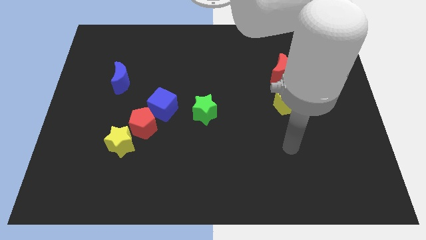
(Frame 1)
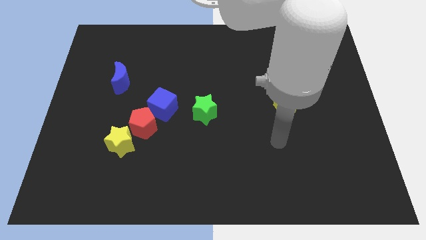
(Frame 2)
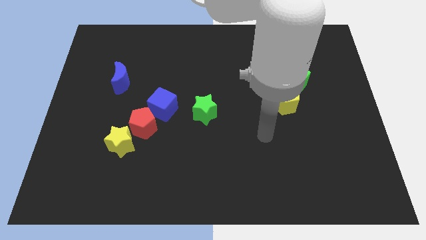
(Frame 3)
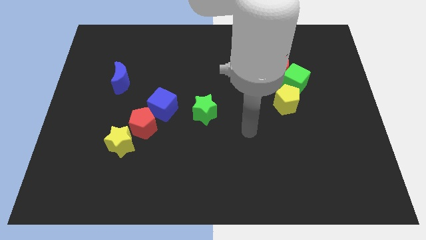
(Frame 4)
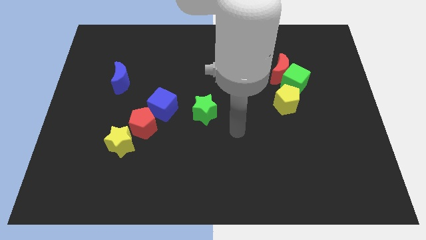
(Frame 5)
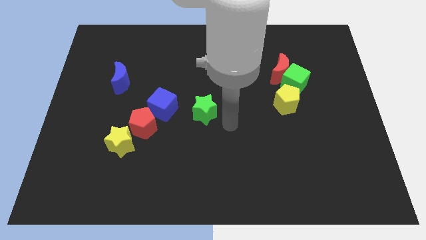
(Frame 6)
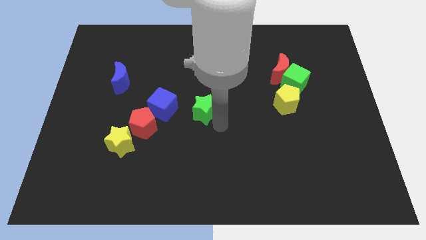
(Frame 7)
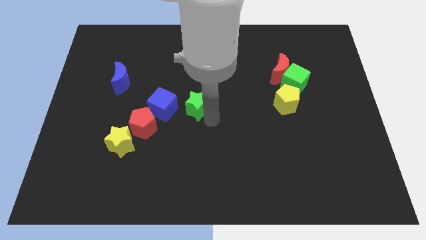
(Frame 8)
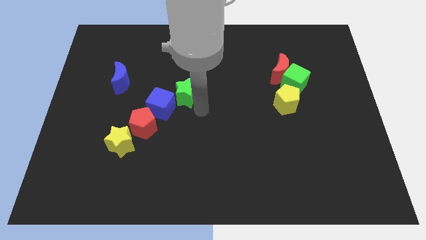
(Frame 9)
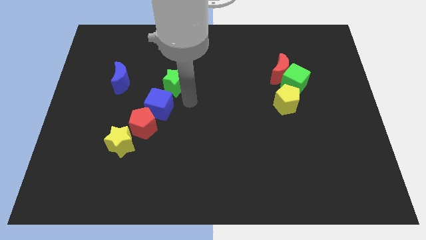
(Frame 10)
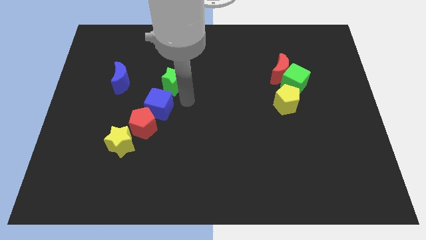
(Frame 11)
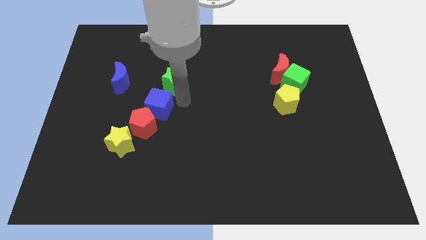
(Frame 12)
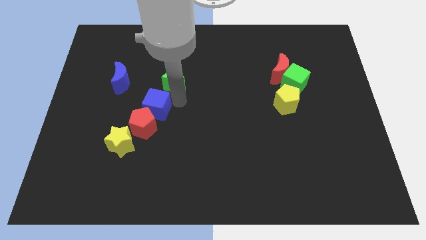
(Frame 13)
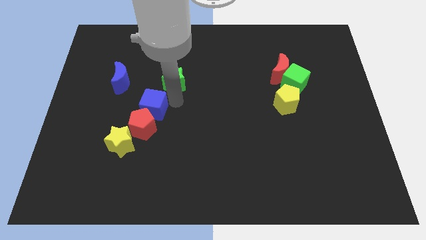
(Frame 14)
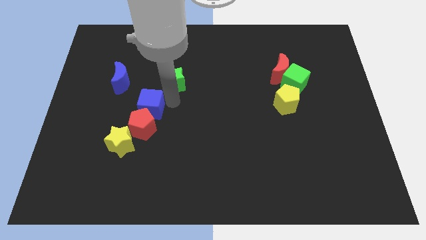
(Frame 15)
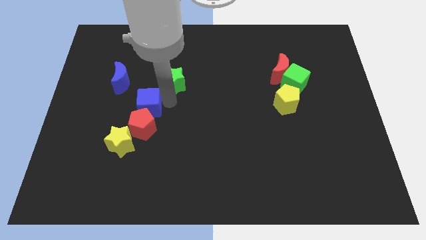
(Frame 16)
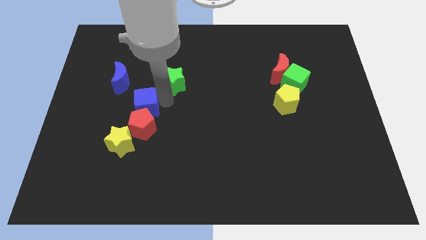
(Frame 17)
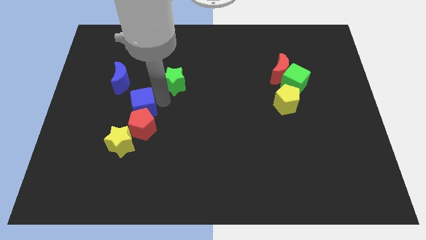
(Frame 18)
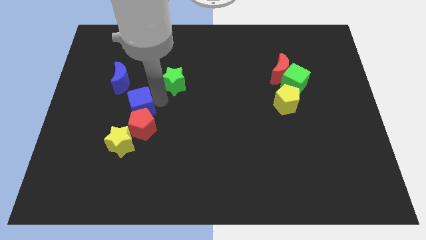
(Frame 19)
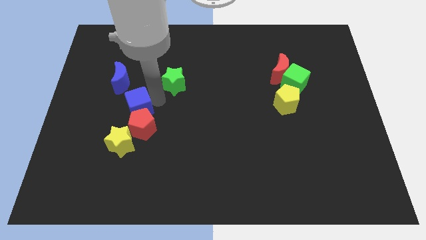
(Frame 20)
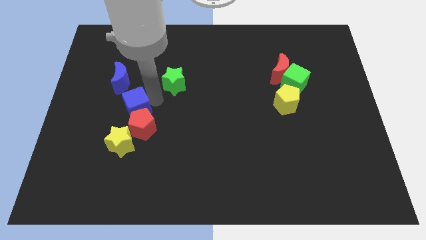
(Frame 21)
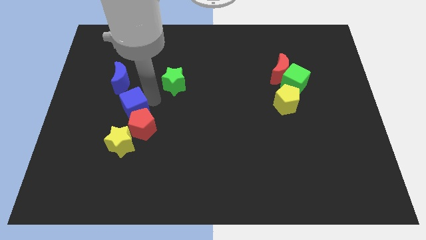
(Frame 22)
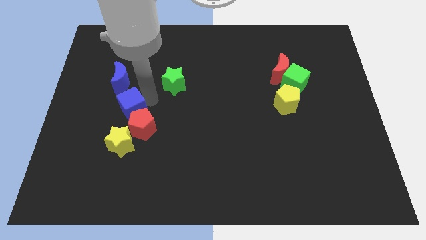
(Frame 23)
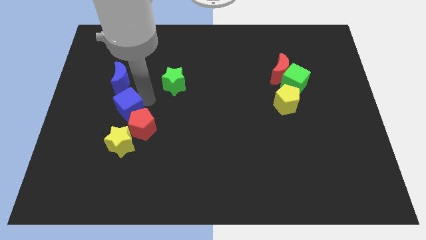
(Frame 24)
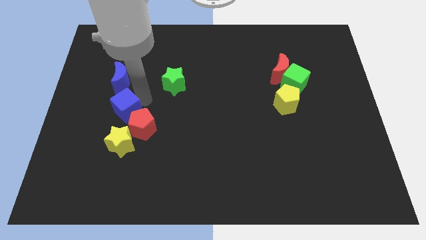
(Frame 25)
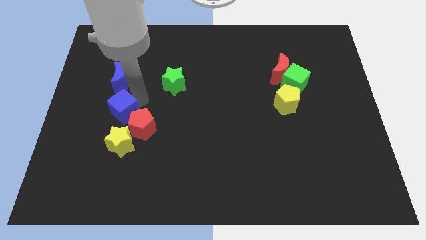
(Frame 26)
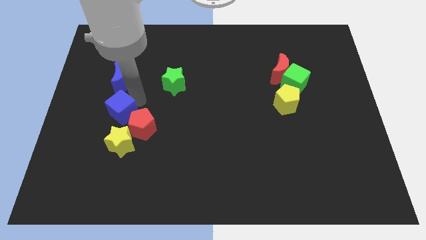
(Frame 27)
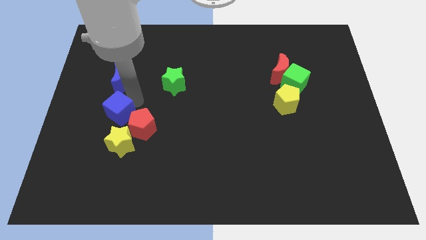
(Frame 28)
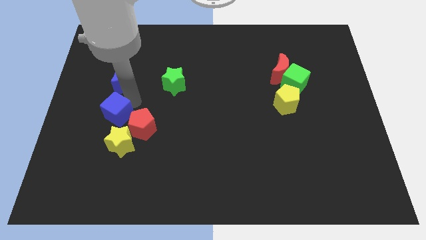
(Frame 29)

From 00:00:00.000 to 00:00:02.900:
move the blue cube downwards and then left slightly

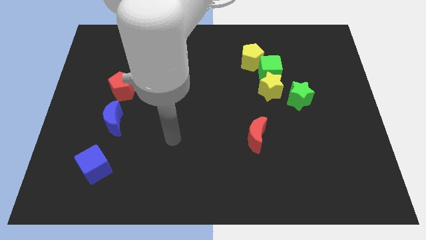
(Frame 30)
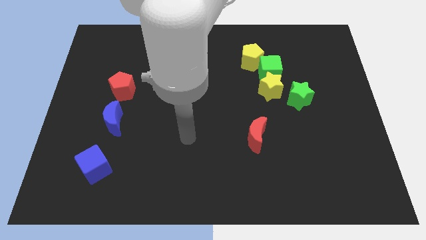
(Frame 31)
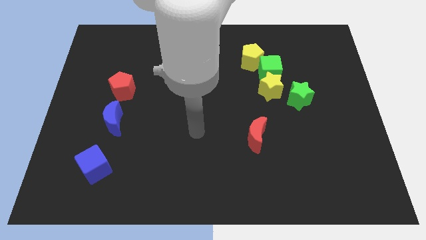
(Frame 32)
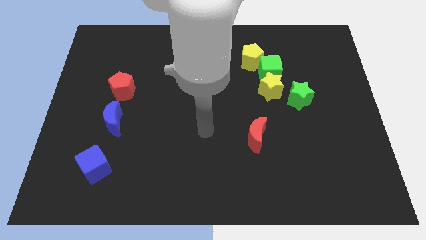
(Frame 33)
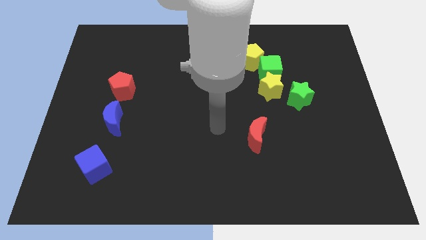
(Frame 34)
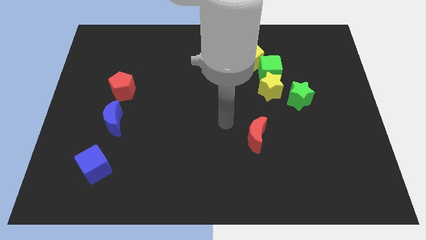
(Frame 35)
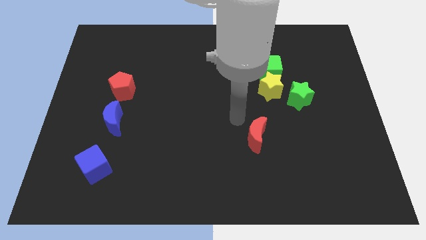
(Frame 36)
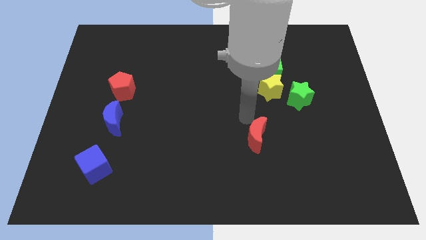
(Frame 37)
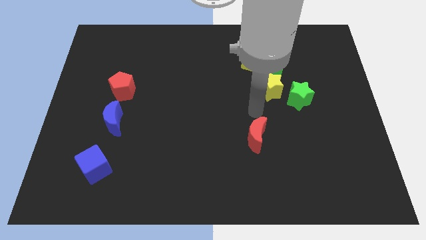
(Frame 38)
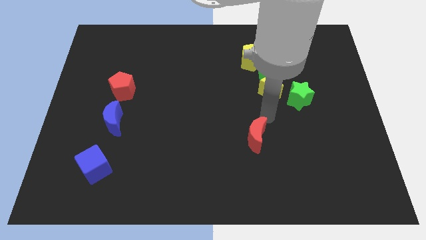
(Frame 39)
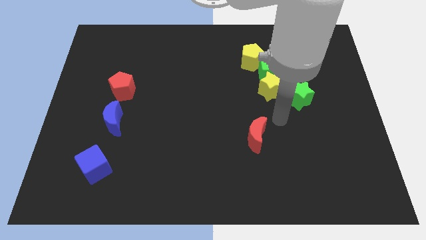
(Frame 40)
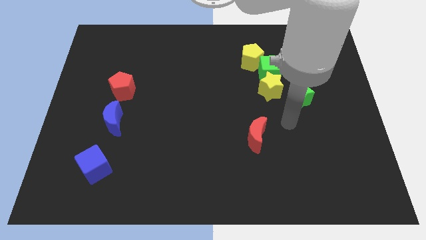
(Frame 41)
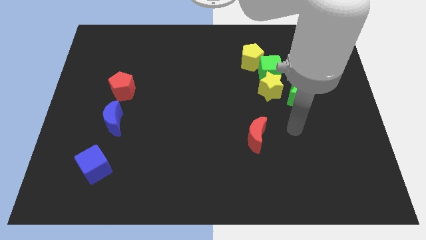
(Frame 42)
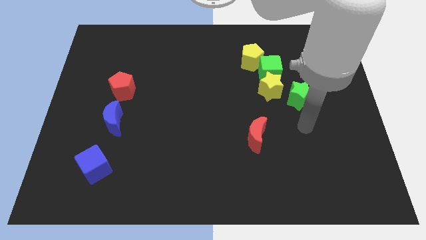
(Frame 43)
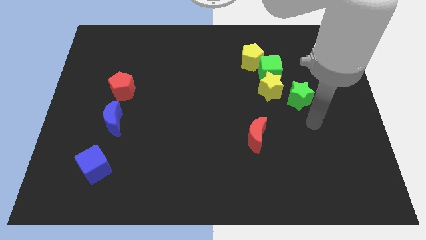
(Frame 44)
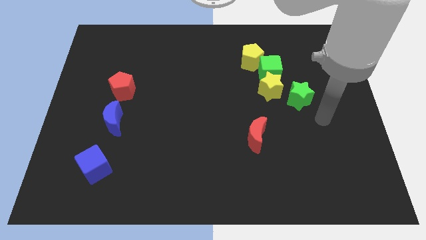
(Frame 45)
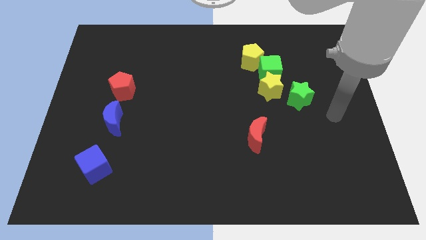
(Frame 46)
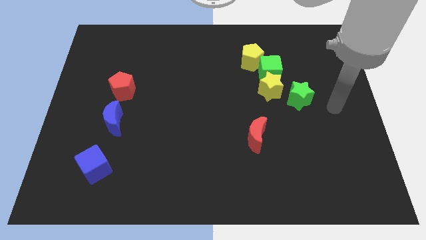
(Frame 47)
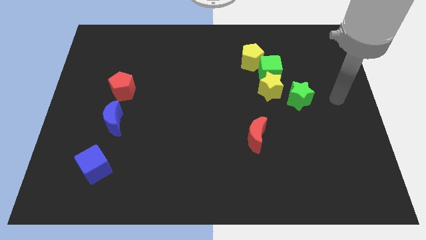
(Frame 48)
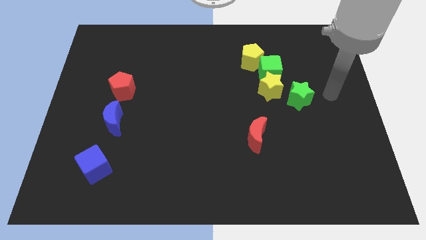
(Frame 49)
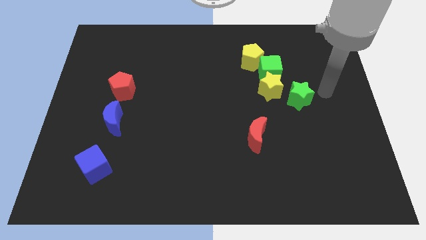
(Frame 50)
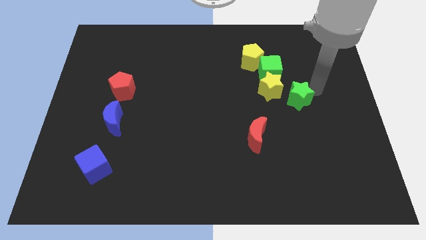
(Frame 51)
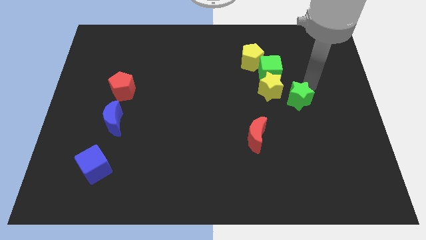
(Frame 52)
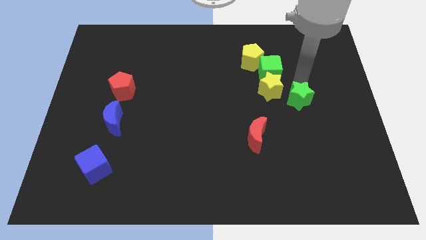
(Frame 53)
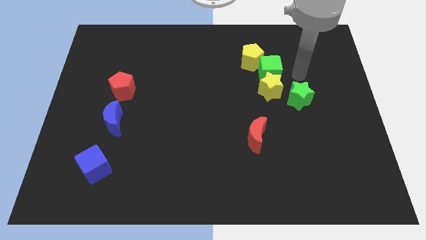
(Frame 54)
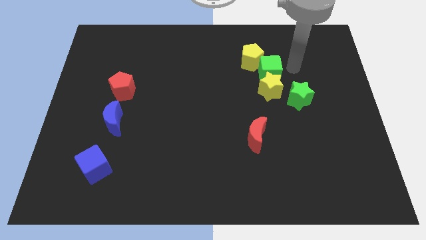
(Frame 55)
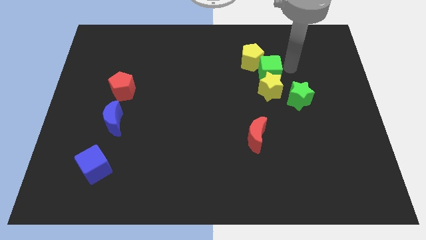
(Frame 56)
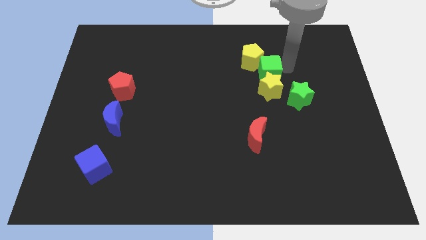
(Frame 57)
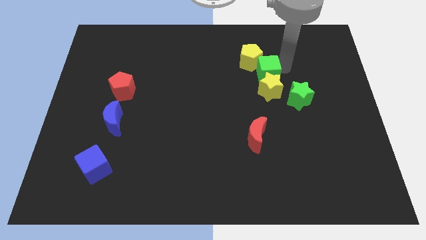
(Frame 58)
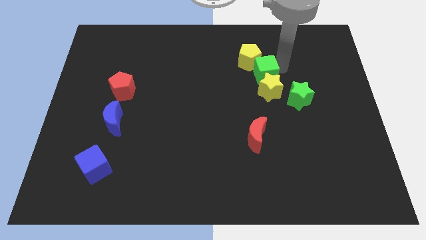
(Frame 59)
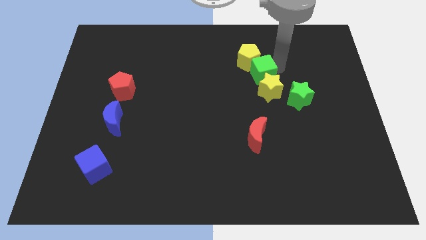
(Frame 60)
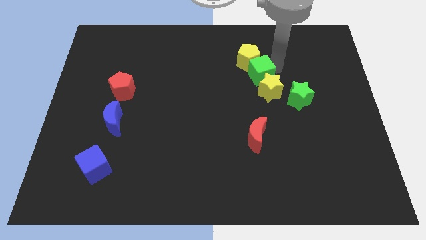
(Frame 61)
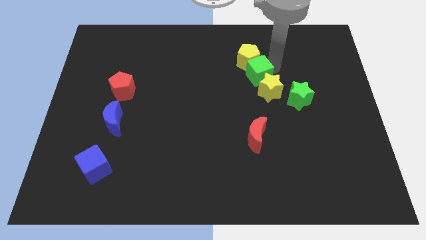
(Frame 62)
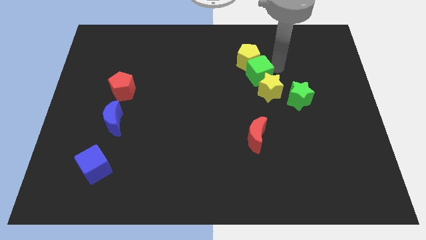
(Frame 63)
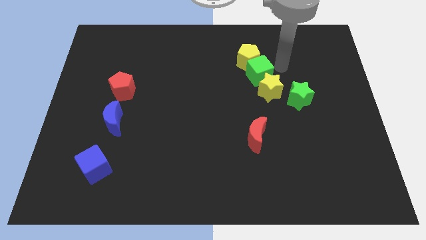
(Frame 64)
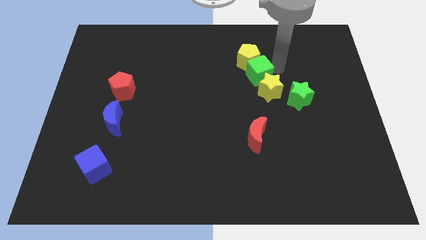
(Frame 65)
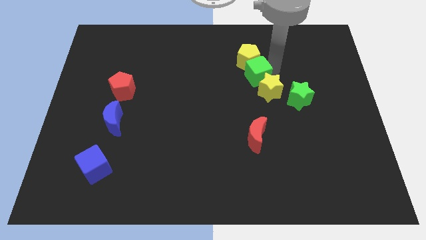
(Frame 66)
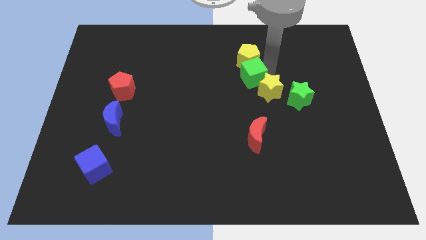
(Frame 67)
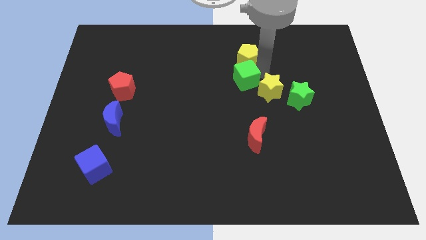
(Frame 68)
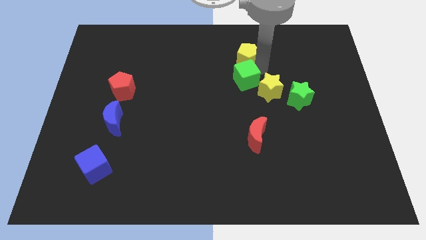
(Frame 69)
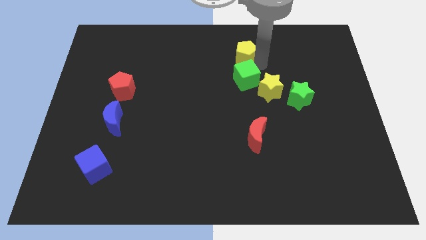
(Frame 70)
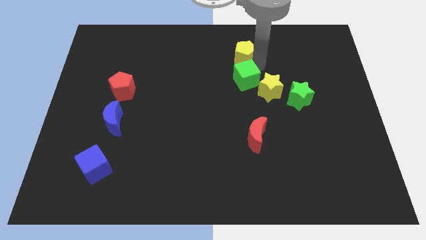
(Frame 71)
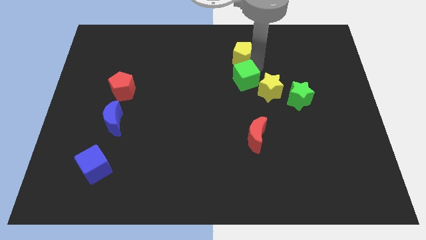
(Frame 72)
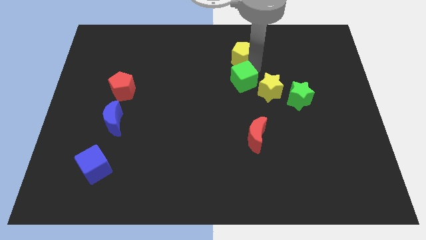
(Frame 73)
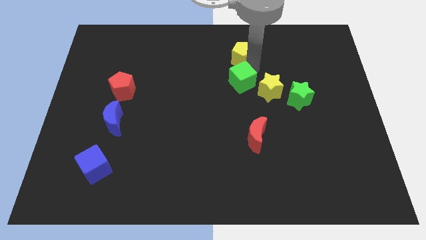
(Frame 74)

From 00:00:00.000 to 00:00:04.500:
slide the green cube somewhat down and then left

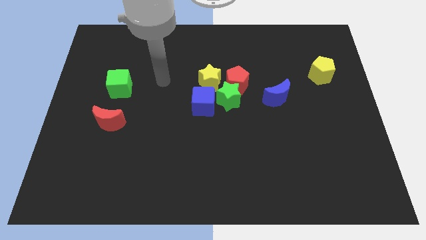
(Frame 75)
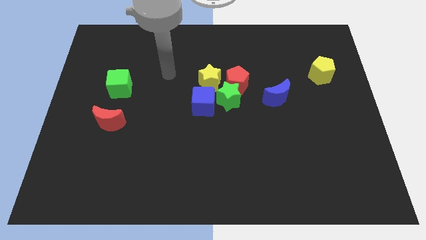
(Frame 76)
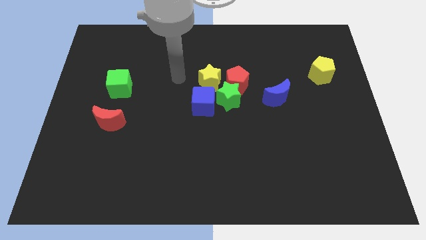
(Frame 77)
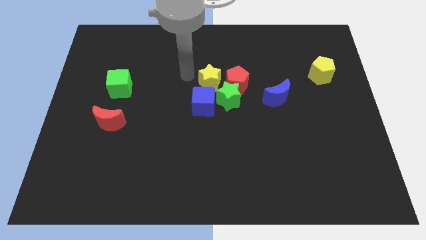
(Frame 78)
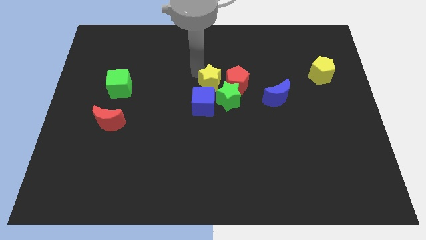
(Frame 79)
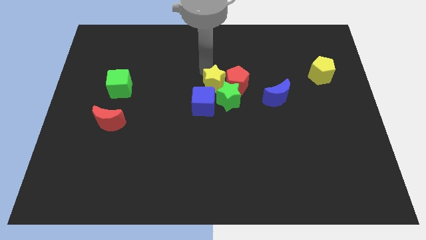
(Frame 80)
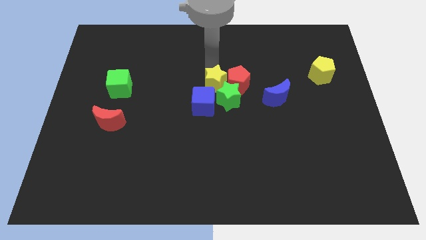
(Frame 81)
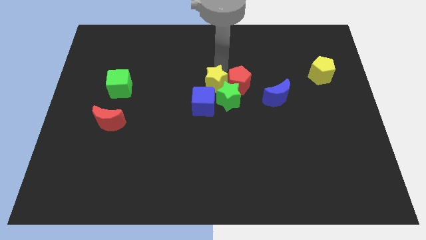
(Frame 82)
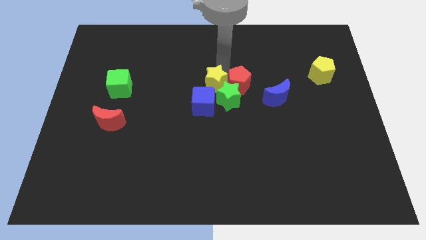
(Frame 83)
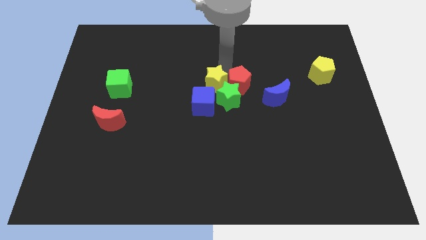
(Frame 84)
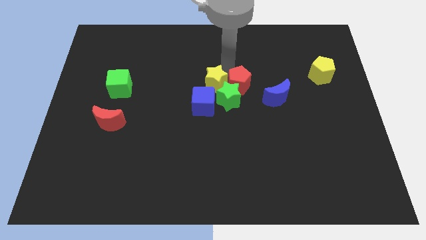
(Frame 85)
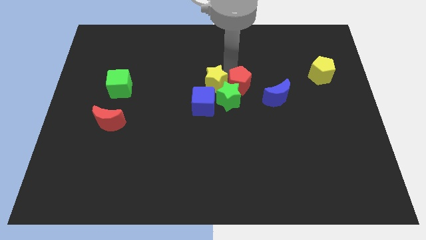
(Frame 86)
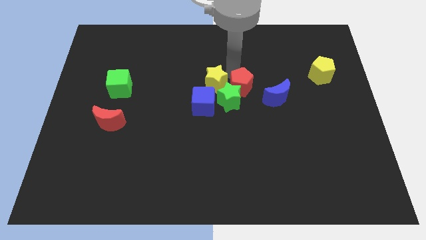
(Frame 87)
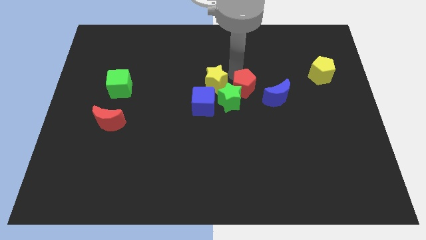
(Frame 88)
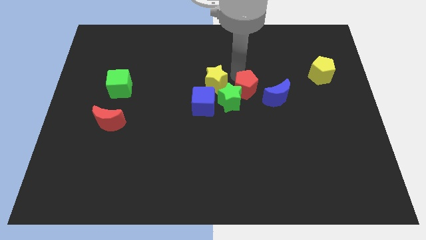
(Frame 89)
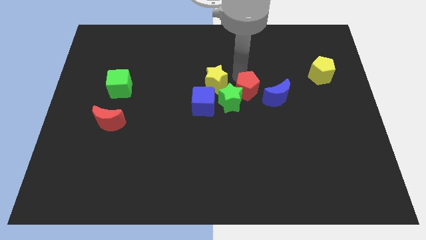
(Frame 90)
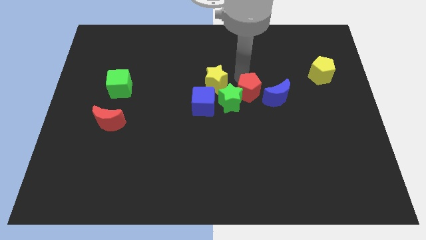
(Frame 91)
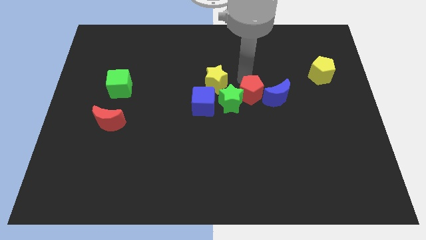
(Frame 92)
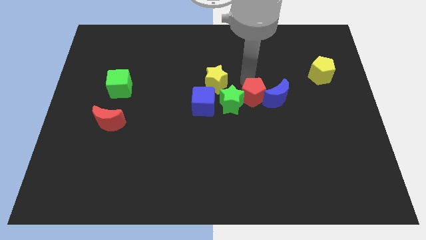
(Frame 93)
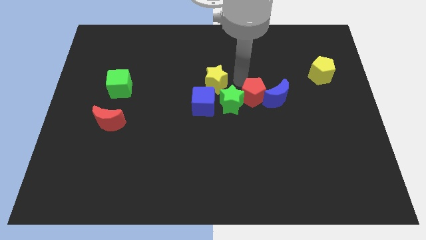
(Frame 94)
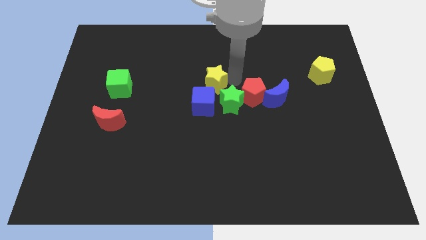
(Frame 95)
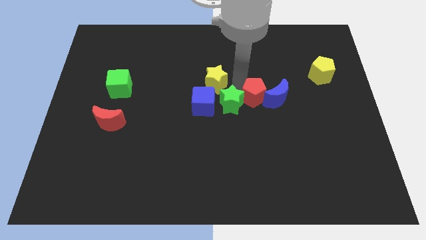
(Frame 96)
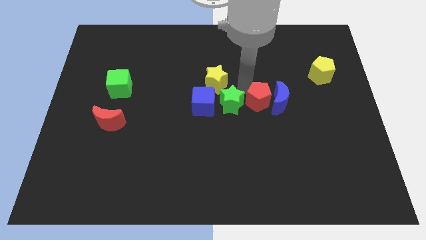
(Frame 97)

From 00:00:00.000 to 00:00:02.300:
slide the red pentagon down and then to the right somewhat
